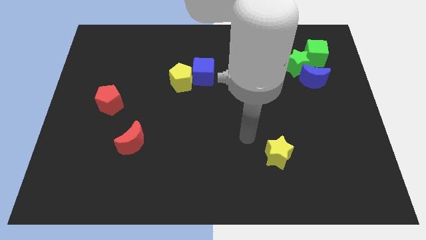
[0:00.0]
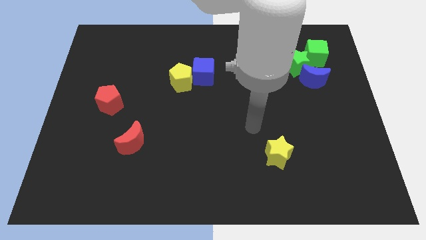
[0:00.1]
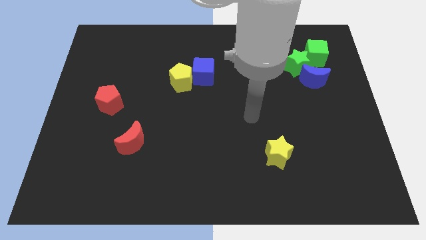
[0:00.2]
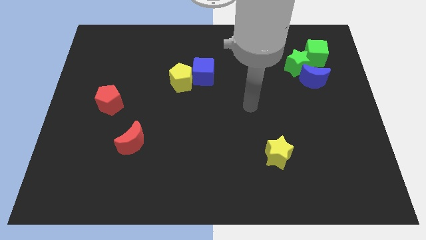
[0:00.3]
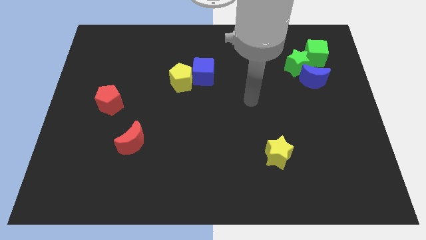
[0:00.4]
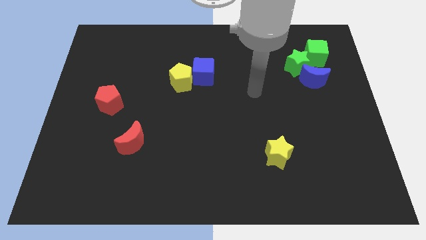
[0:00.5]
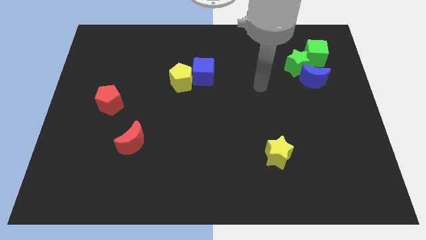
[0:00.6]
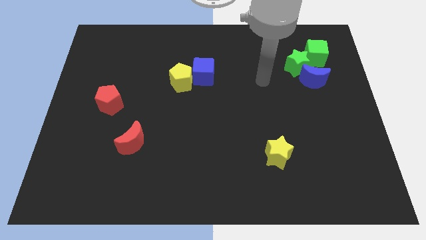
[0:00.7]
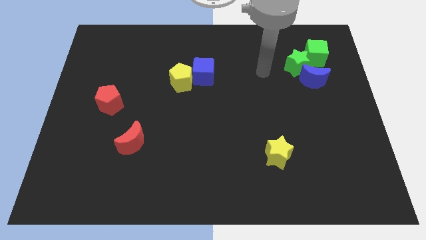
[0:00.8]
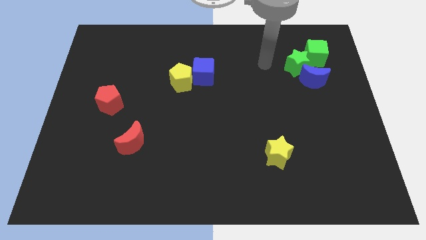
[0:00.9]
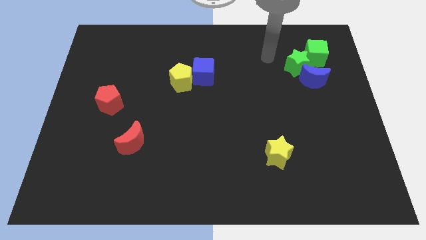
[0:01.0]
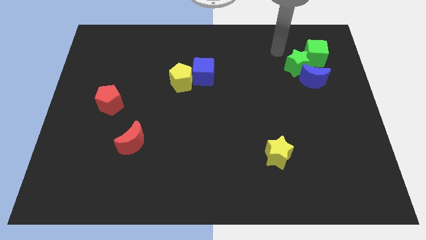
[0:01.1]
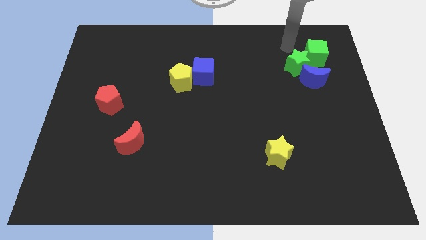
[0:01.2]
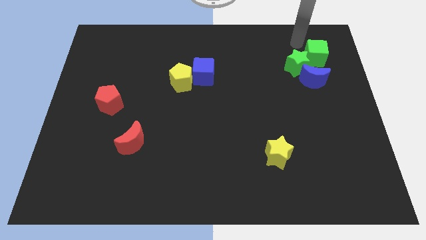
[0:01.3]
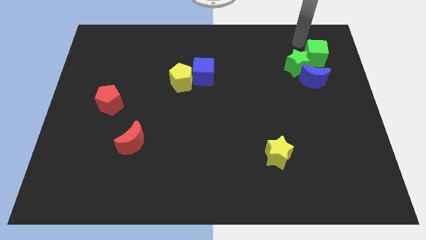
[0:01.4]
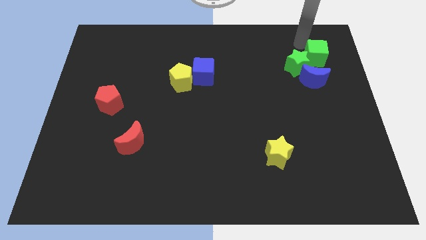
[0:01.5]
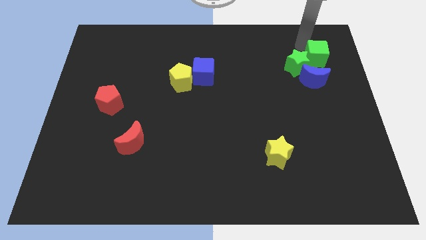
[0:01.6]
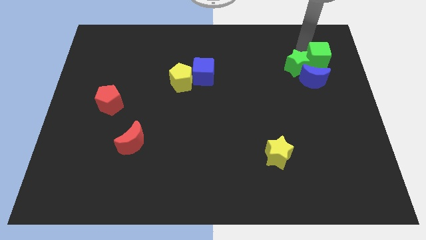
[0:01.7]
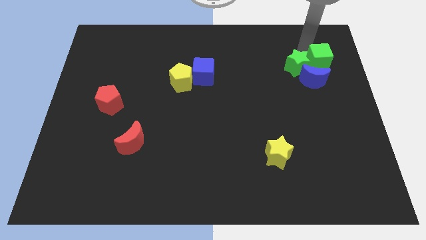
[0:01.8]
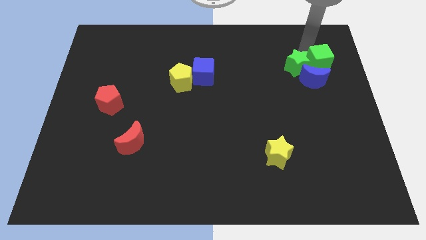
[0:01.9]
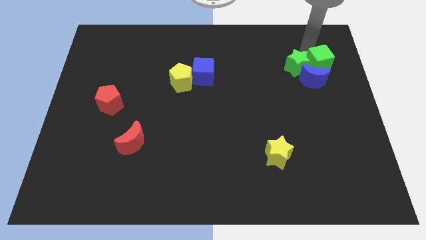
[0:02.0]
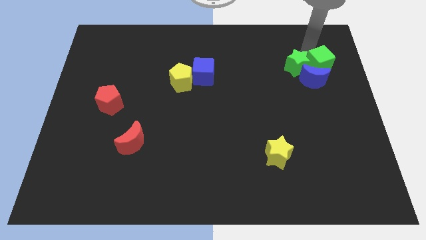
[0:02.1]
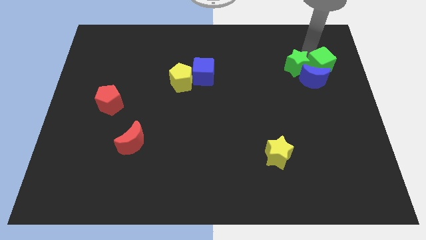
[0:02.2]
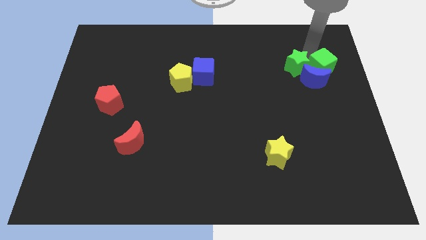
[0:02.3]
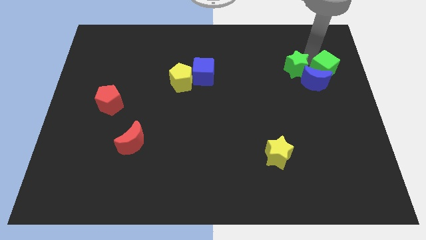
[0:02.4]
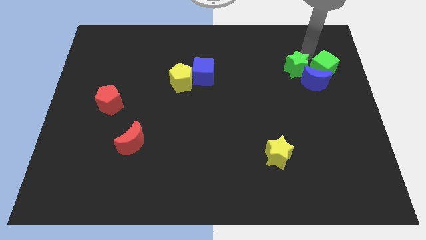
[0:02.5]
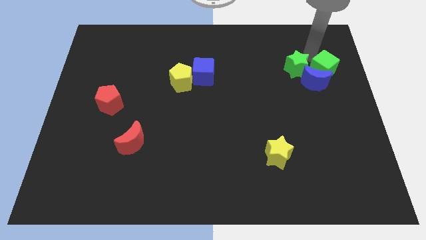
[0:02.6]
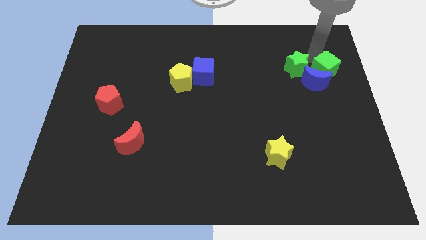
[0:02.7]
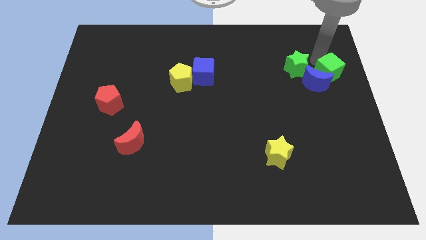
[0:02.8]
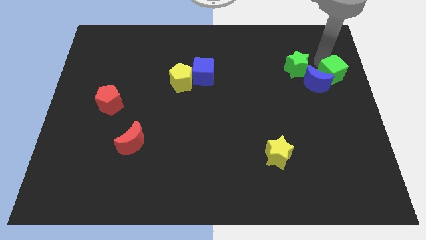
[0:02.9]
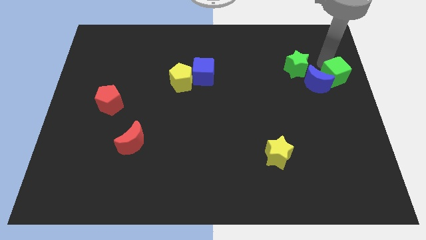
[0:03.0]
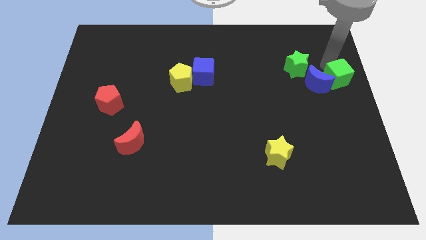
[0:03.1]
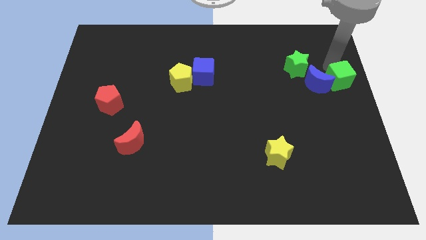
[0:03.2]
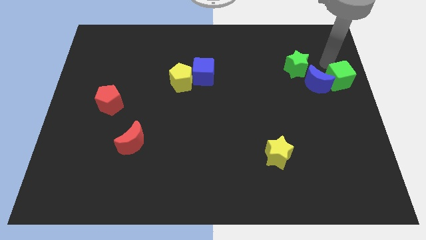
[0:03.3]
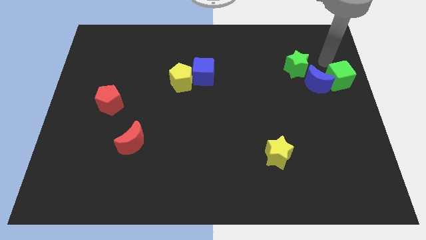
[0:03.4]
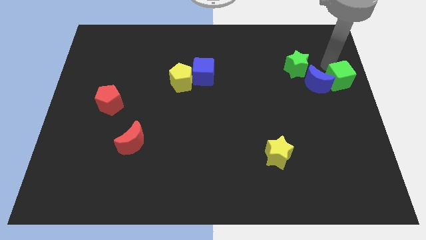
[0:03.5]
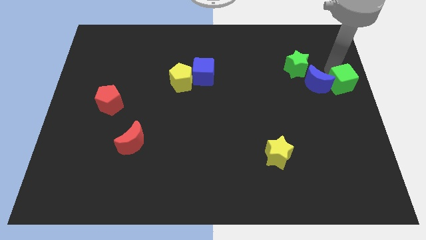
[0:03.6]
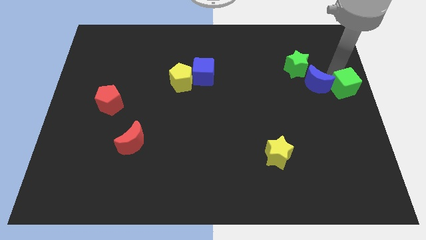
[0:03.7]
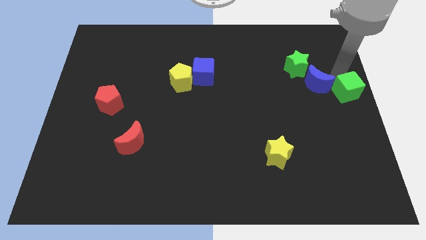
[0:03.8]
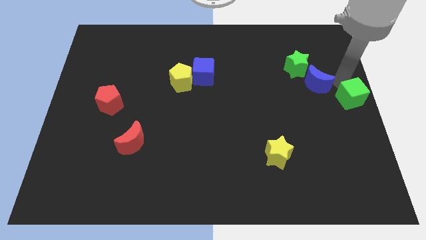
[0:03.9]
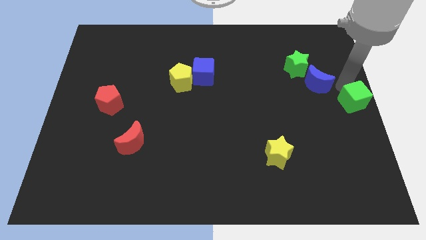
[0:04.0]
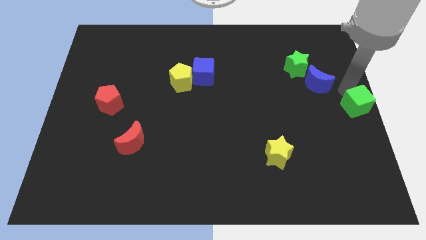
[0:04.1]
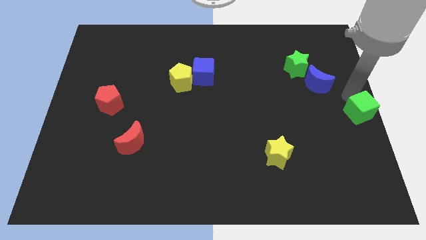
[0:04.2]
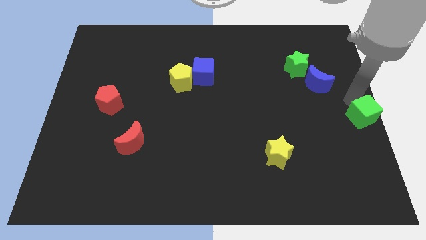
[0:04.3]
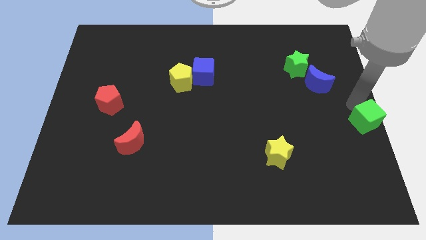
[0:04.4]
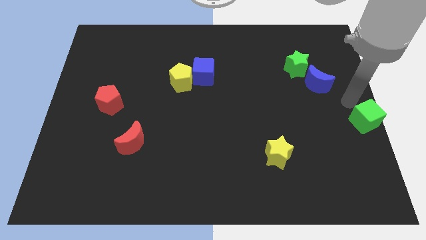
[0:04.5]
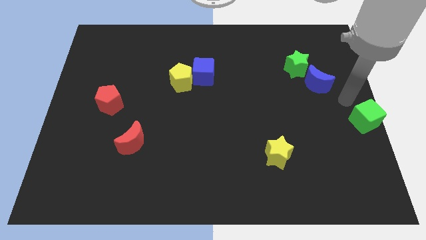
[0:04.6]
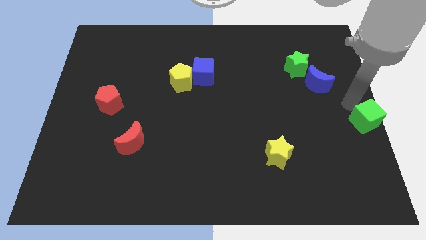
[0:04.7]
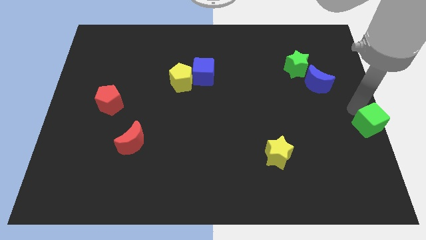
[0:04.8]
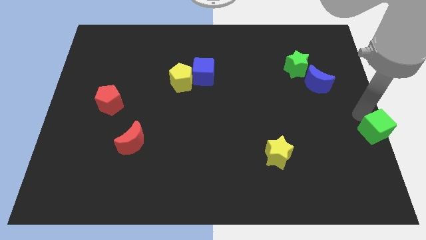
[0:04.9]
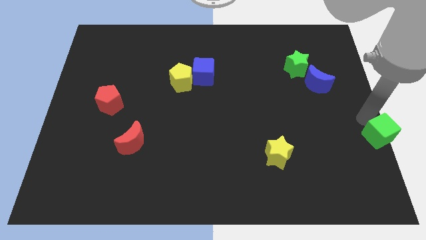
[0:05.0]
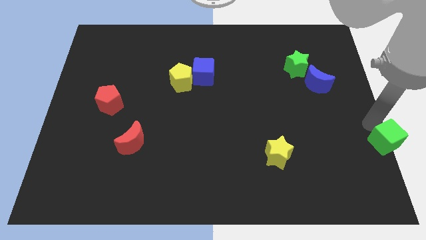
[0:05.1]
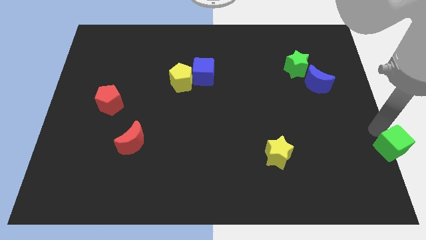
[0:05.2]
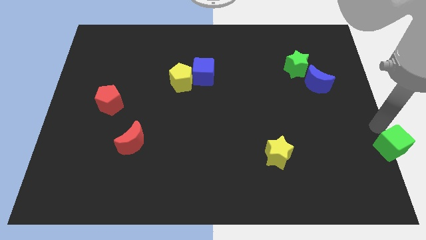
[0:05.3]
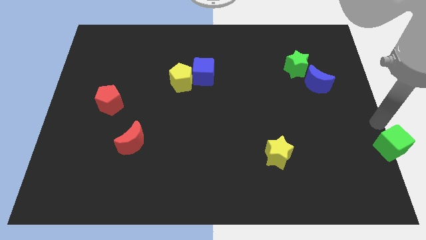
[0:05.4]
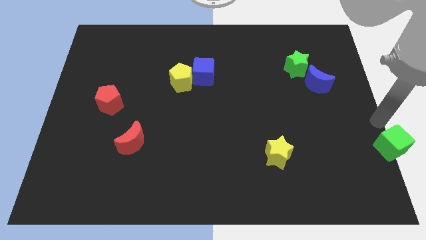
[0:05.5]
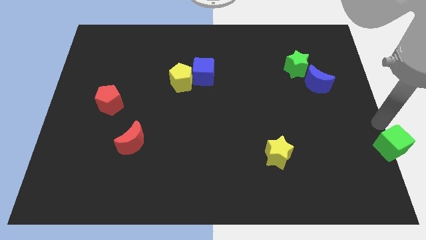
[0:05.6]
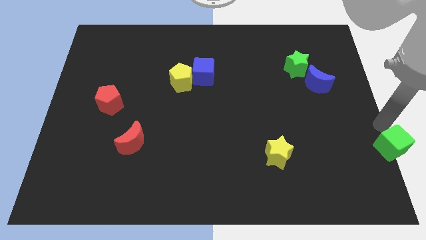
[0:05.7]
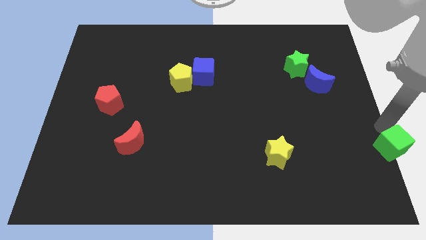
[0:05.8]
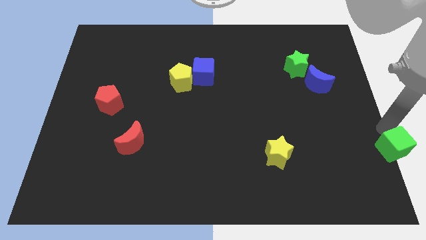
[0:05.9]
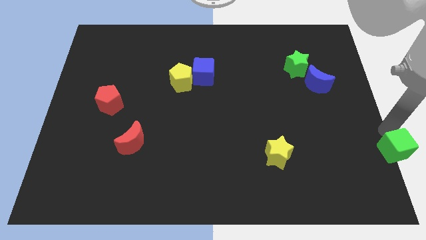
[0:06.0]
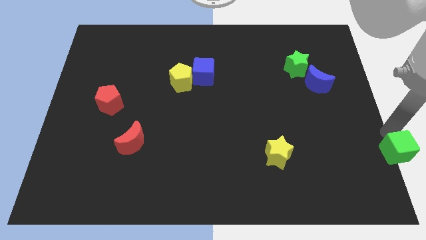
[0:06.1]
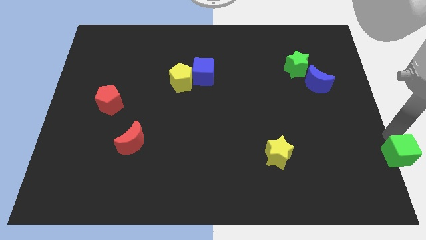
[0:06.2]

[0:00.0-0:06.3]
slide the green cube to the bottom right corner
